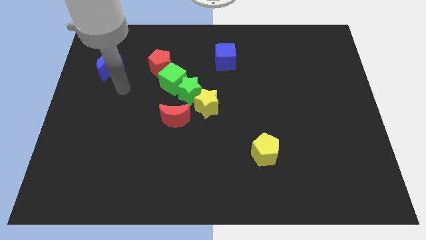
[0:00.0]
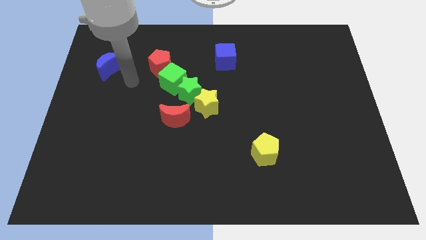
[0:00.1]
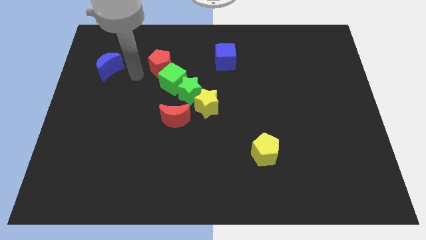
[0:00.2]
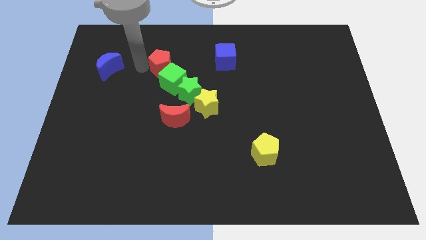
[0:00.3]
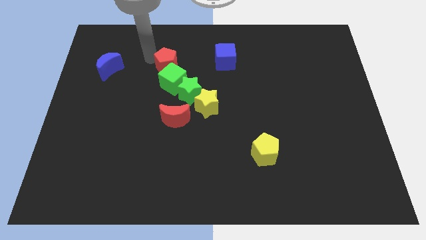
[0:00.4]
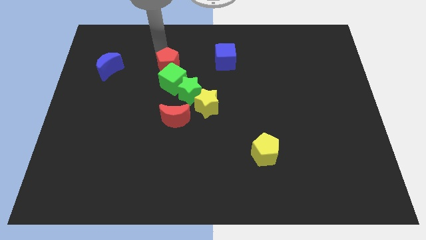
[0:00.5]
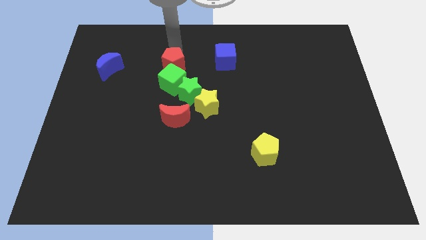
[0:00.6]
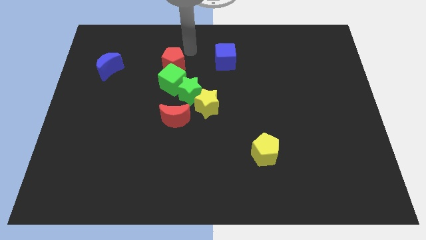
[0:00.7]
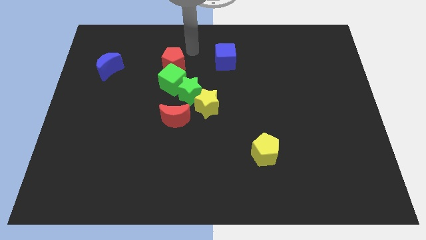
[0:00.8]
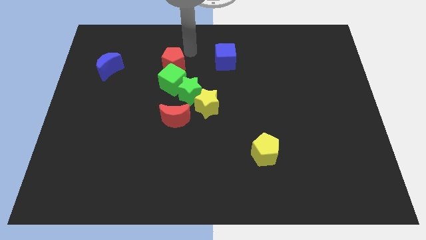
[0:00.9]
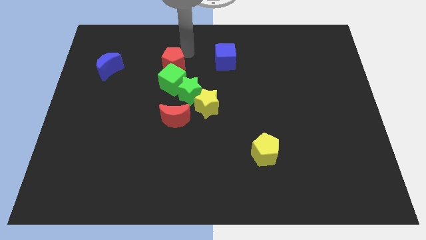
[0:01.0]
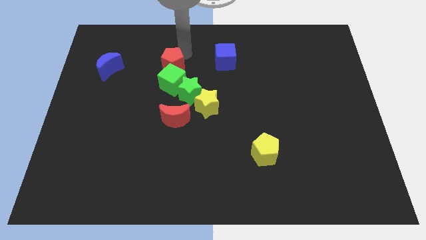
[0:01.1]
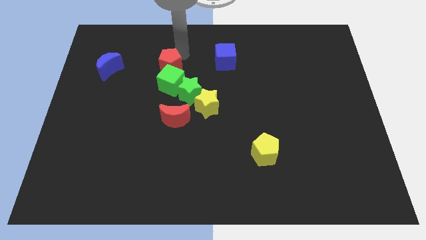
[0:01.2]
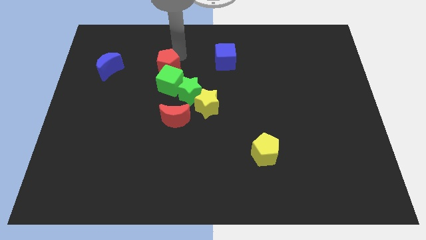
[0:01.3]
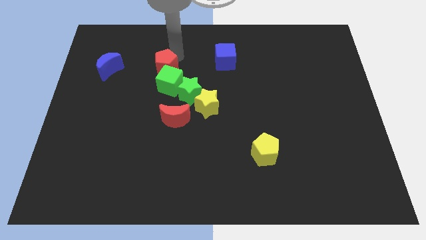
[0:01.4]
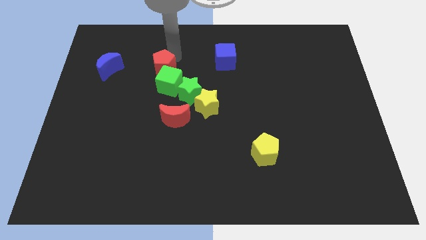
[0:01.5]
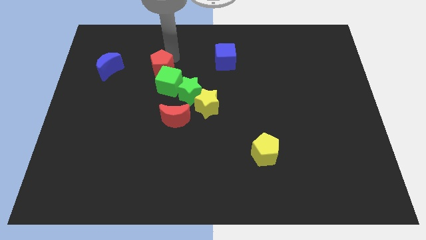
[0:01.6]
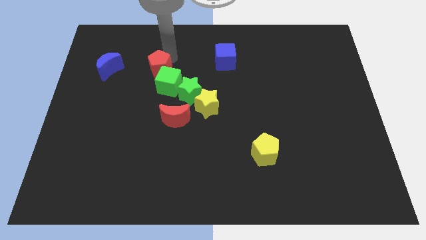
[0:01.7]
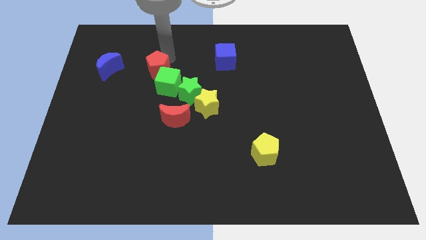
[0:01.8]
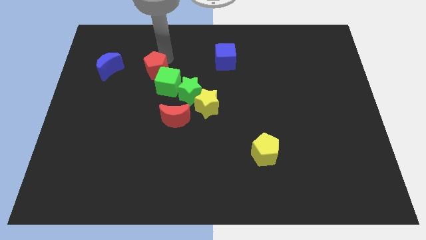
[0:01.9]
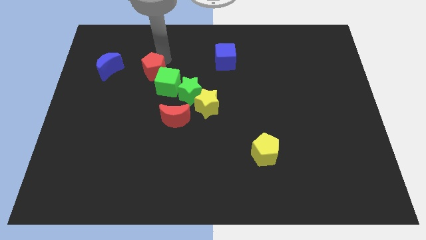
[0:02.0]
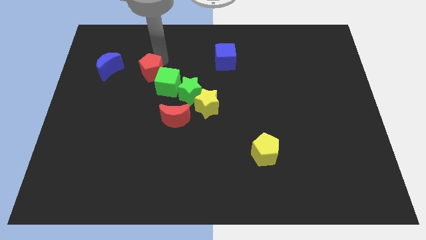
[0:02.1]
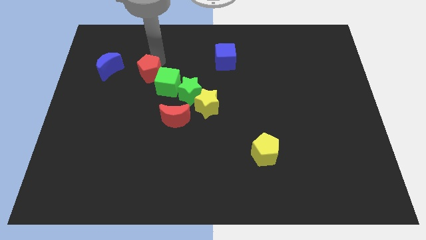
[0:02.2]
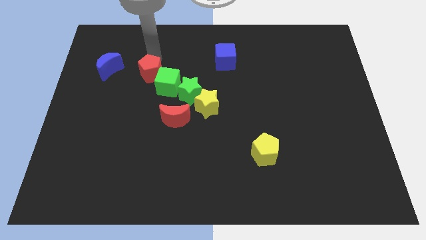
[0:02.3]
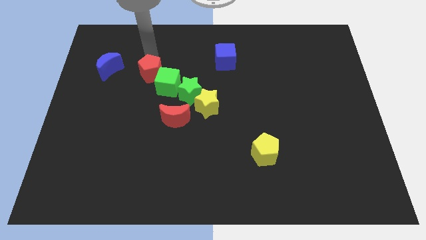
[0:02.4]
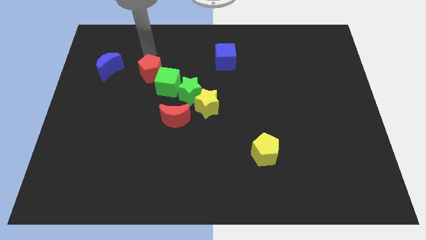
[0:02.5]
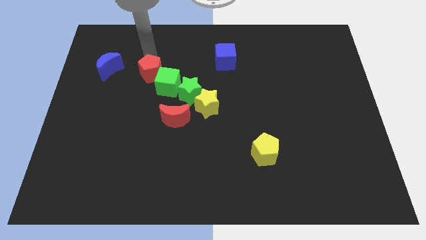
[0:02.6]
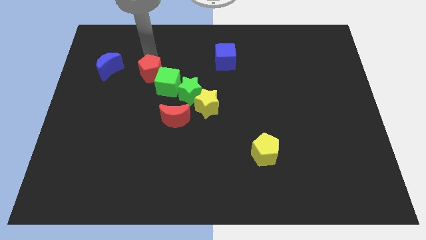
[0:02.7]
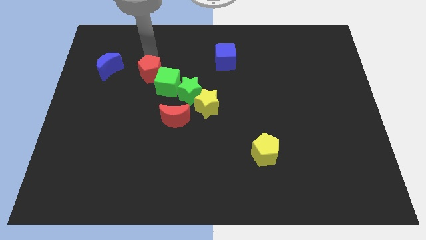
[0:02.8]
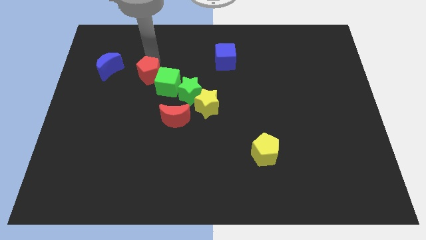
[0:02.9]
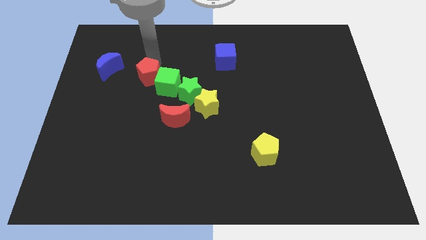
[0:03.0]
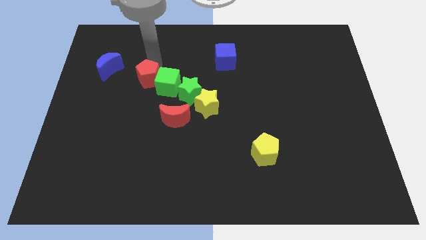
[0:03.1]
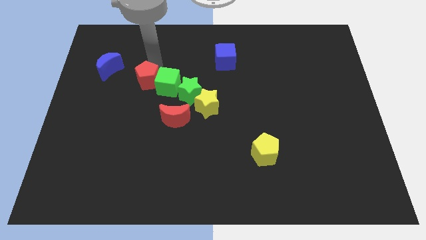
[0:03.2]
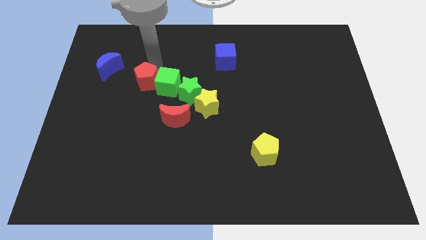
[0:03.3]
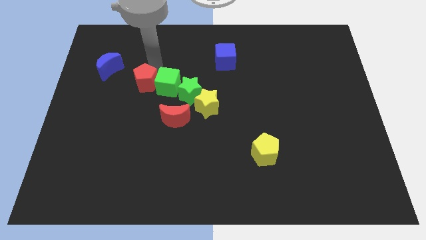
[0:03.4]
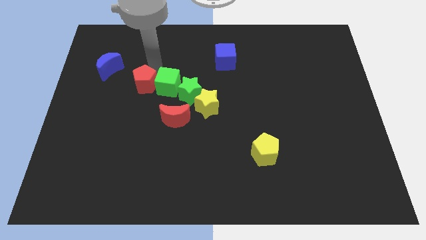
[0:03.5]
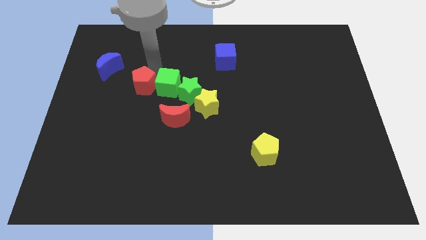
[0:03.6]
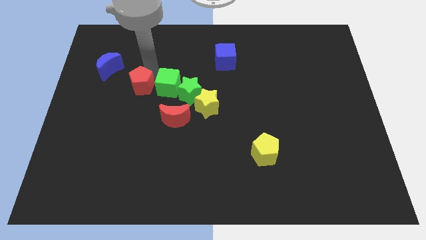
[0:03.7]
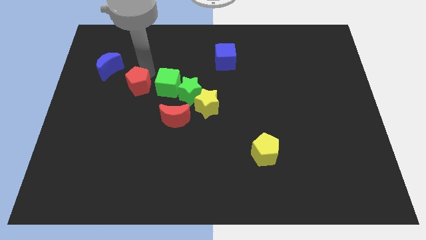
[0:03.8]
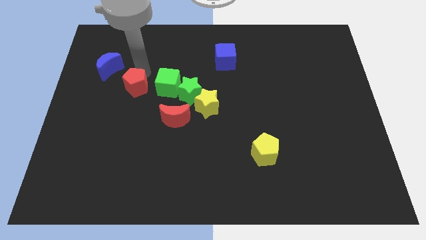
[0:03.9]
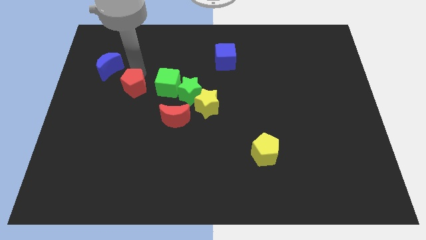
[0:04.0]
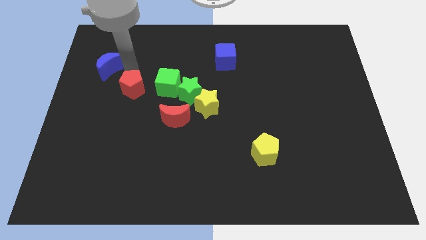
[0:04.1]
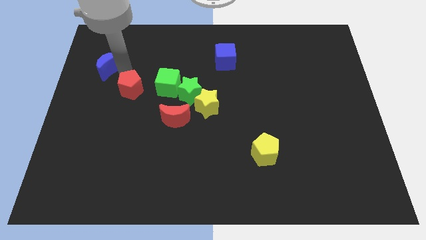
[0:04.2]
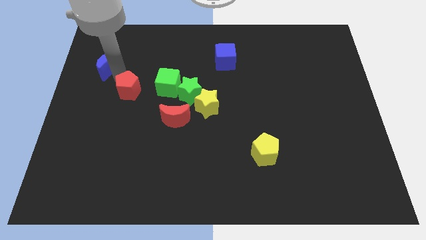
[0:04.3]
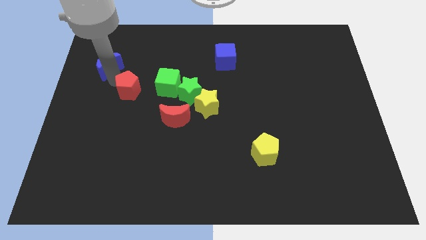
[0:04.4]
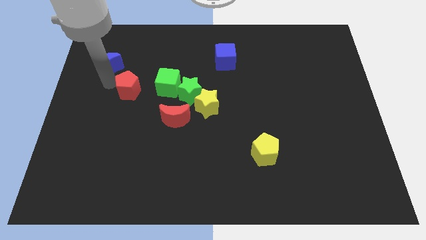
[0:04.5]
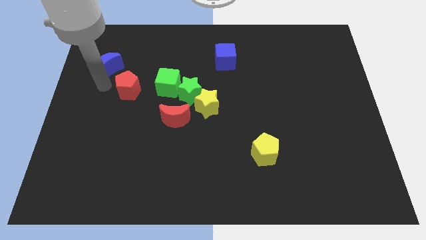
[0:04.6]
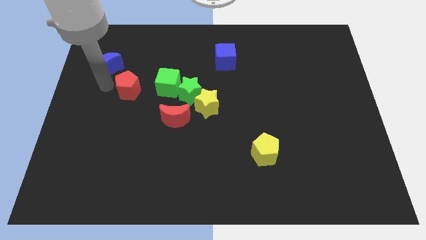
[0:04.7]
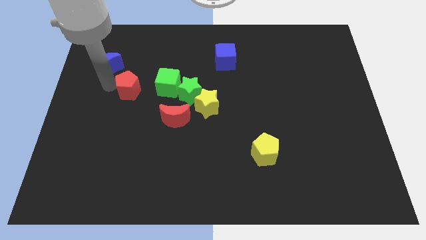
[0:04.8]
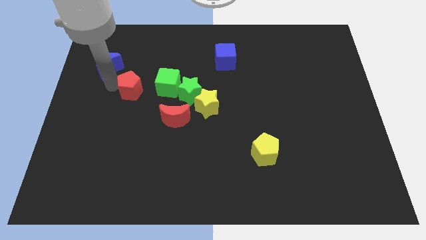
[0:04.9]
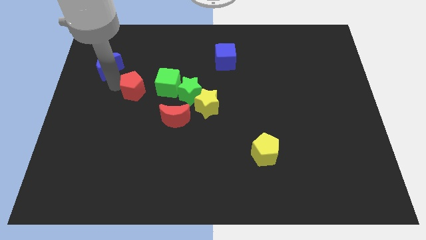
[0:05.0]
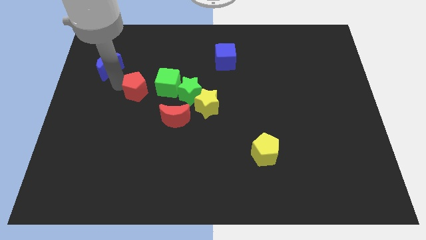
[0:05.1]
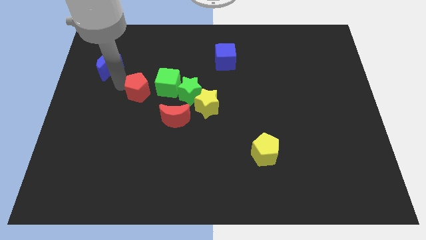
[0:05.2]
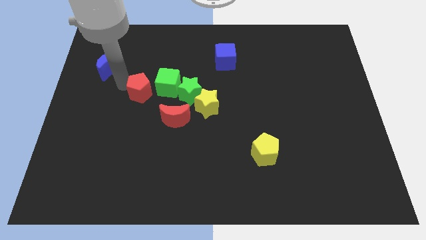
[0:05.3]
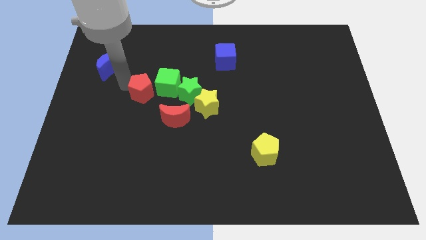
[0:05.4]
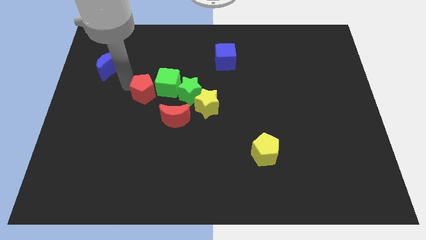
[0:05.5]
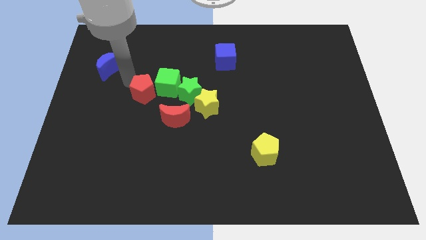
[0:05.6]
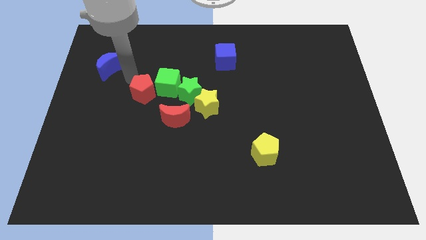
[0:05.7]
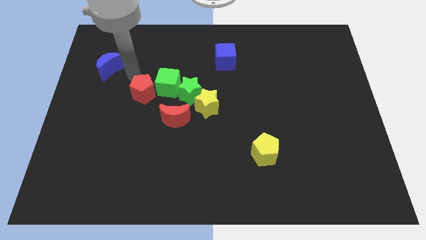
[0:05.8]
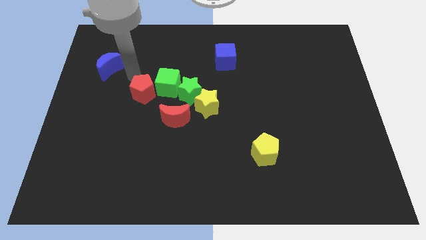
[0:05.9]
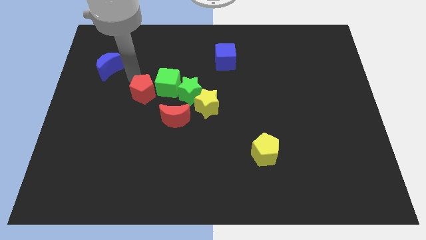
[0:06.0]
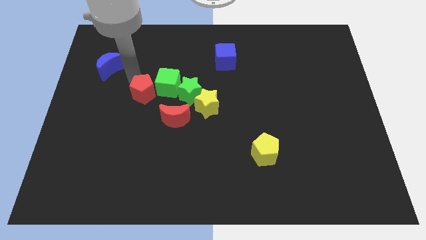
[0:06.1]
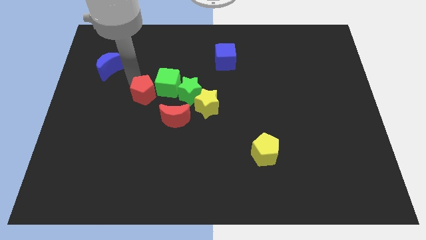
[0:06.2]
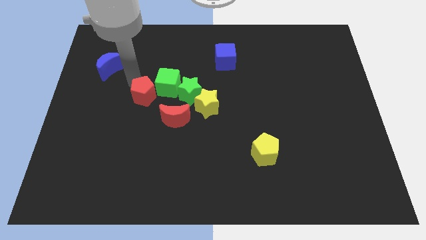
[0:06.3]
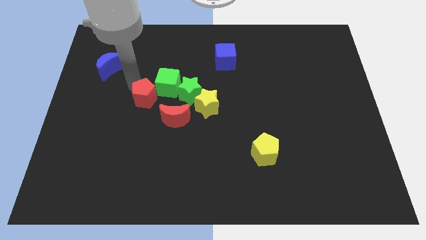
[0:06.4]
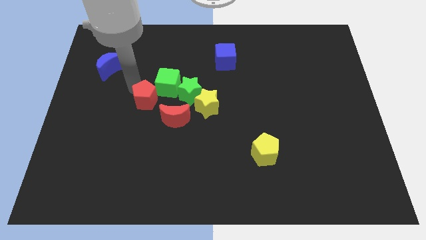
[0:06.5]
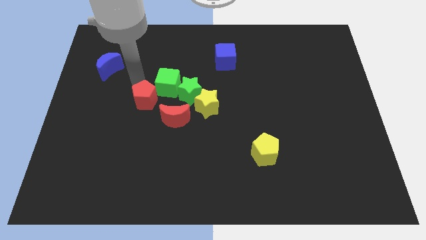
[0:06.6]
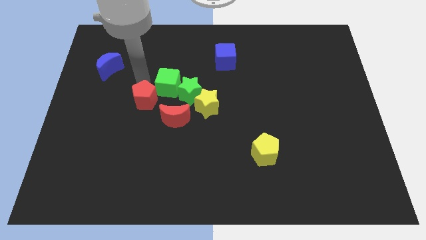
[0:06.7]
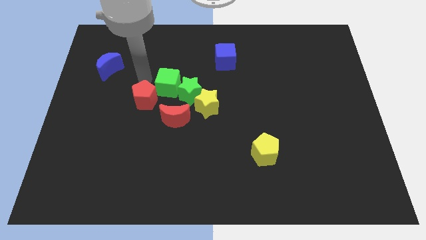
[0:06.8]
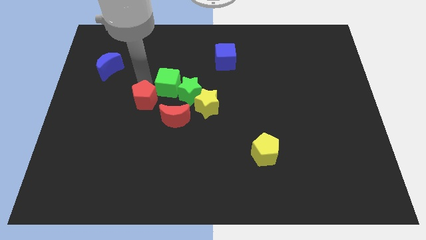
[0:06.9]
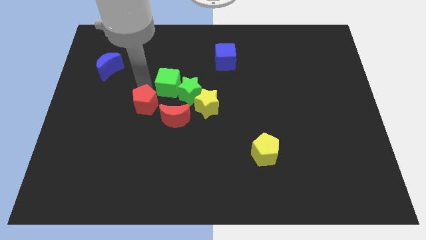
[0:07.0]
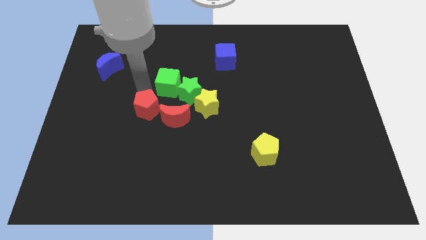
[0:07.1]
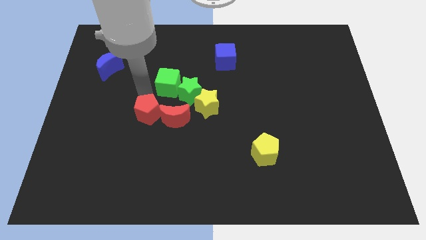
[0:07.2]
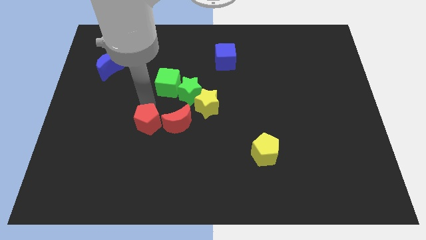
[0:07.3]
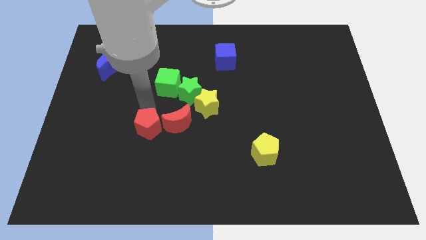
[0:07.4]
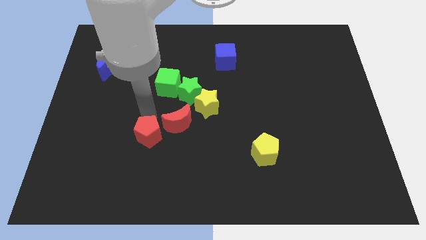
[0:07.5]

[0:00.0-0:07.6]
slide the red pentagon down

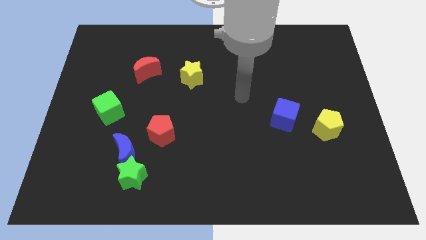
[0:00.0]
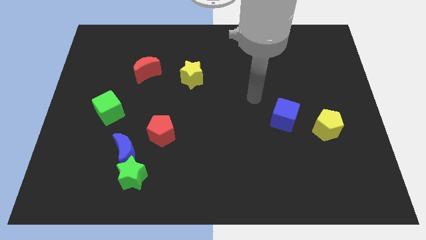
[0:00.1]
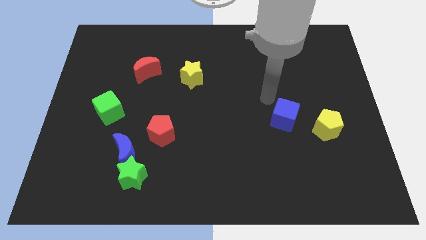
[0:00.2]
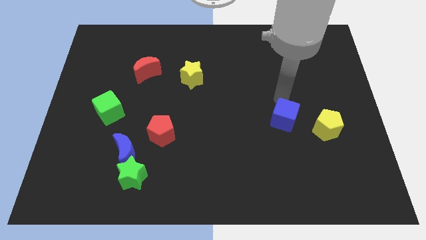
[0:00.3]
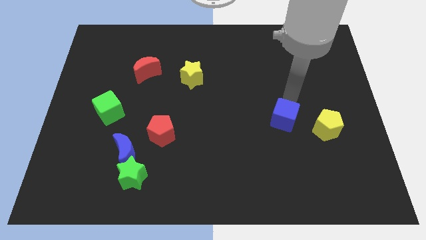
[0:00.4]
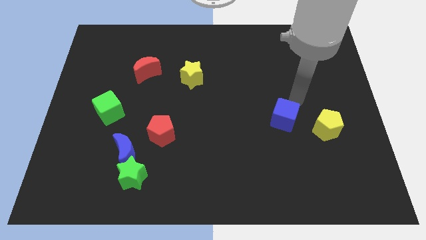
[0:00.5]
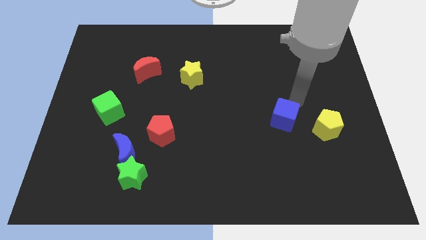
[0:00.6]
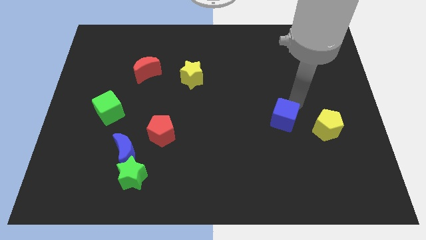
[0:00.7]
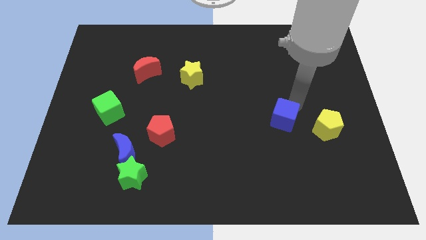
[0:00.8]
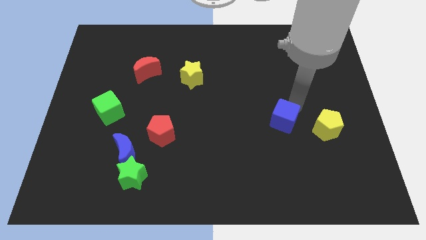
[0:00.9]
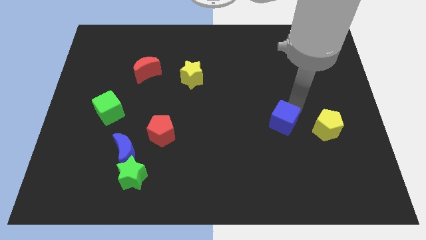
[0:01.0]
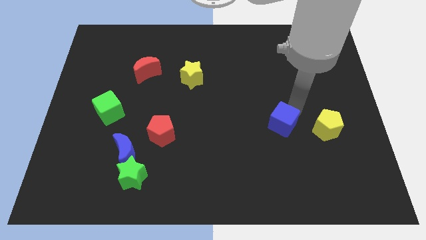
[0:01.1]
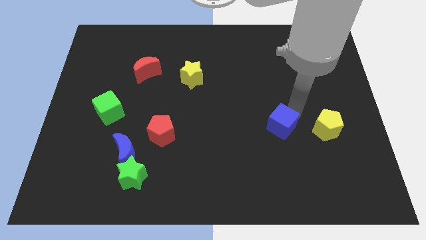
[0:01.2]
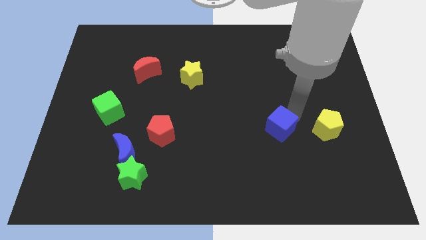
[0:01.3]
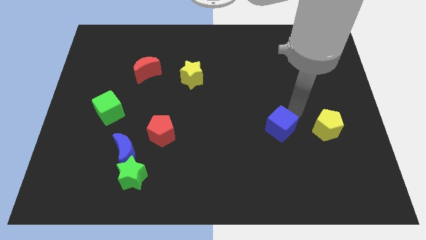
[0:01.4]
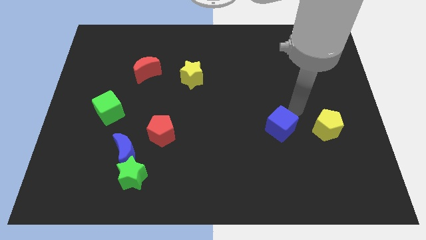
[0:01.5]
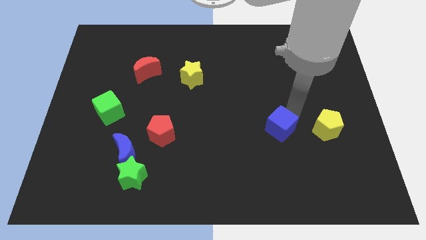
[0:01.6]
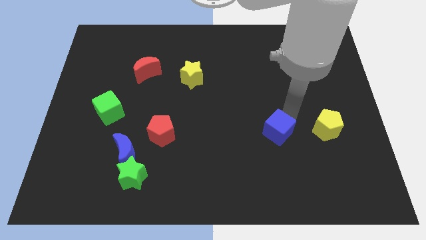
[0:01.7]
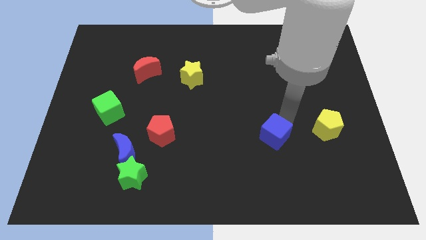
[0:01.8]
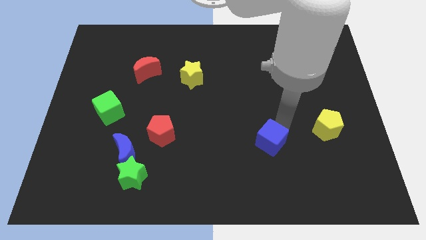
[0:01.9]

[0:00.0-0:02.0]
slightly move the blue cube downwards and to the left diagonally
